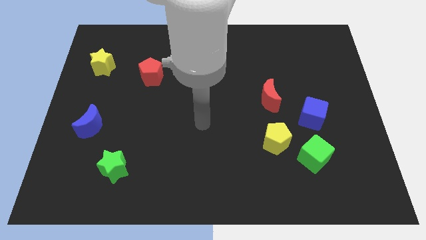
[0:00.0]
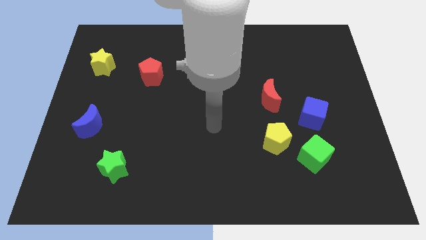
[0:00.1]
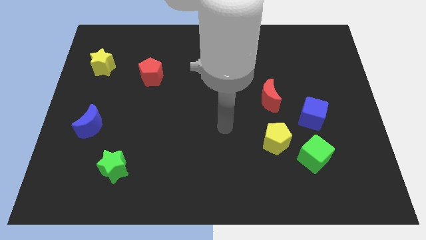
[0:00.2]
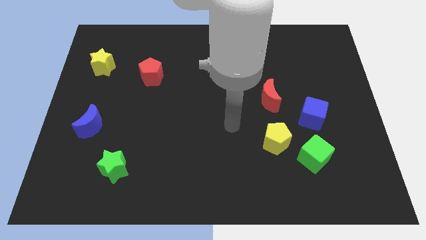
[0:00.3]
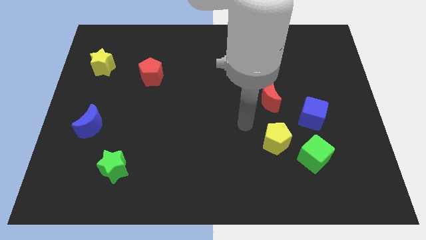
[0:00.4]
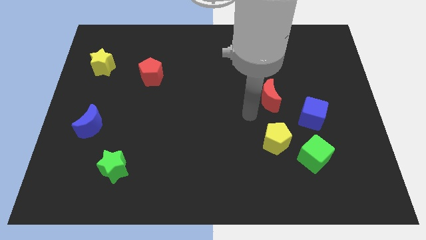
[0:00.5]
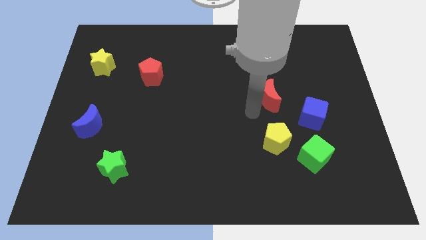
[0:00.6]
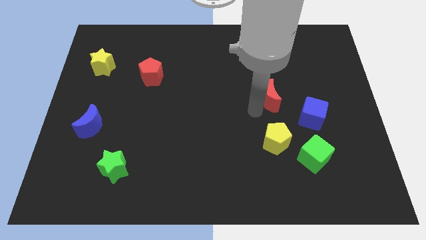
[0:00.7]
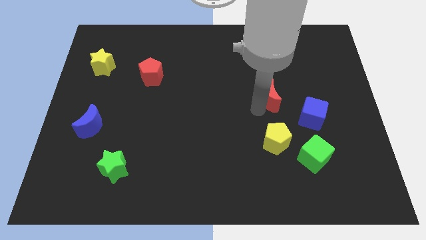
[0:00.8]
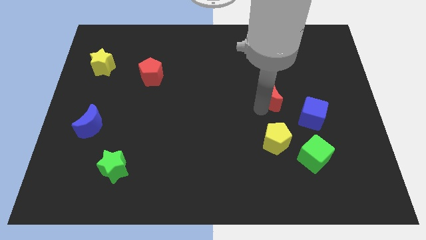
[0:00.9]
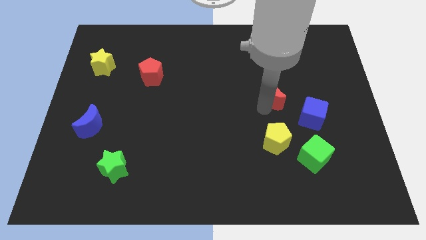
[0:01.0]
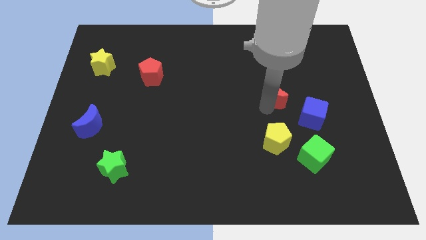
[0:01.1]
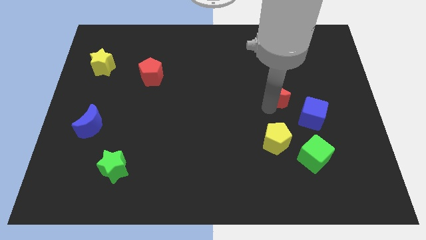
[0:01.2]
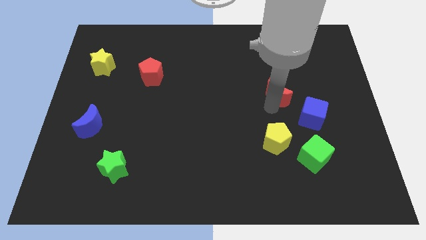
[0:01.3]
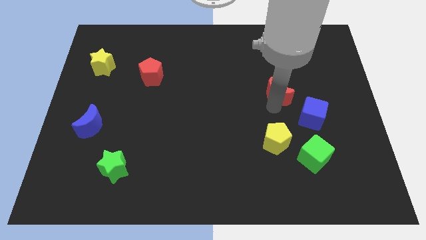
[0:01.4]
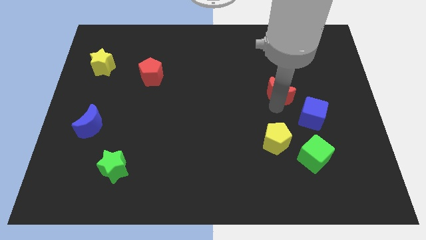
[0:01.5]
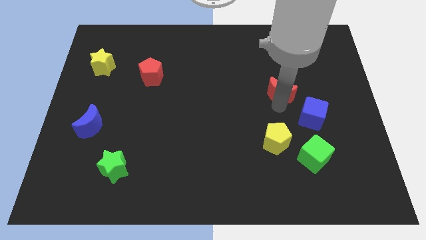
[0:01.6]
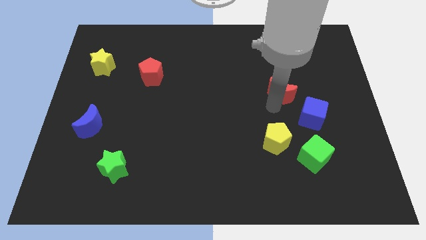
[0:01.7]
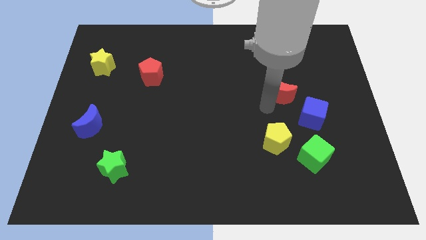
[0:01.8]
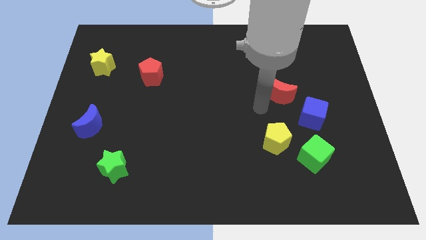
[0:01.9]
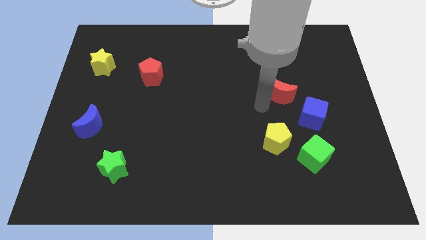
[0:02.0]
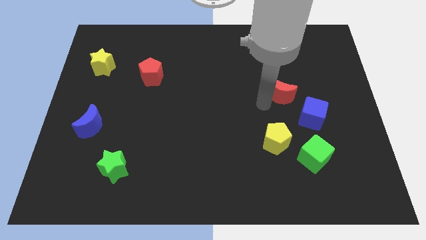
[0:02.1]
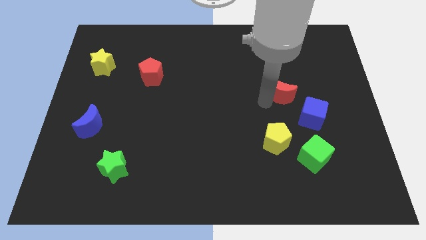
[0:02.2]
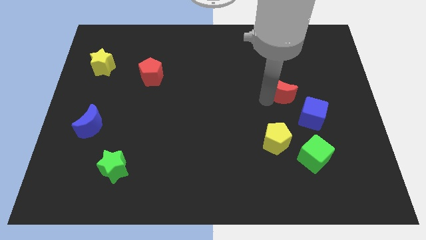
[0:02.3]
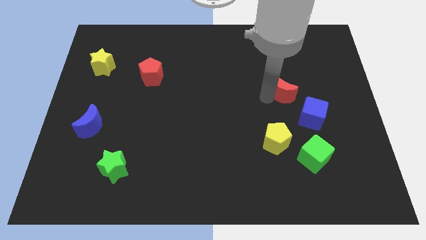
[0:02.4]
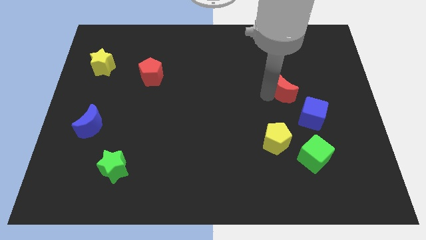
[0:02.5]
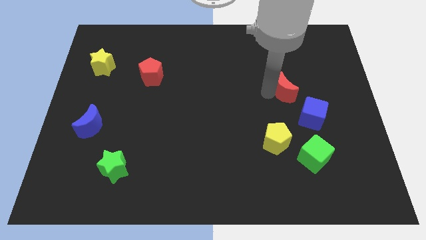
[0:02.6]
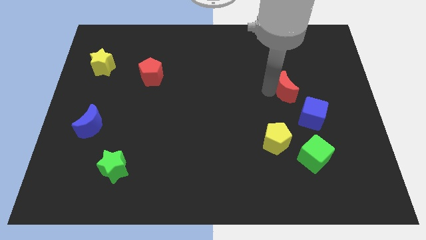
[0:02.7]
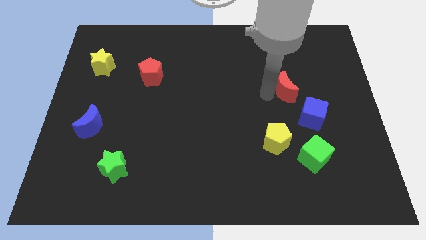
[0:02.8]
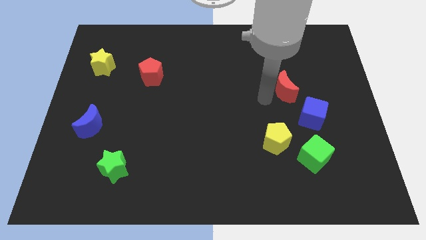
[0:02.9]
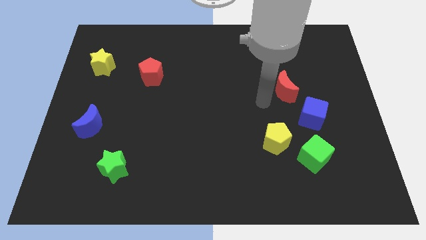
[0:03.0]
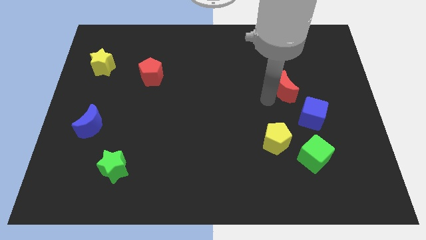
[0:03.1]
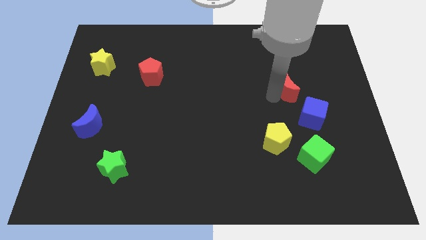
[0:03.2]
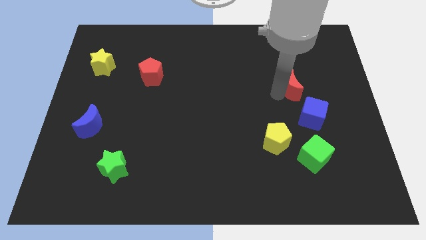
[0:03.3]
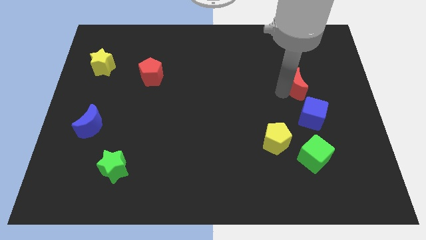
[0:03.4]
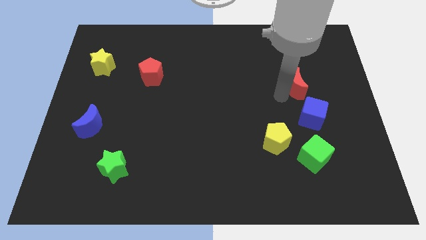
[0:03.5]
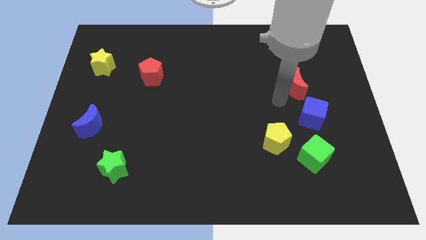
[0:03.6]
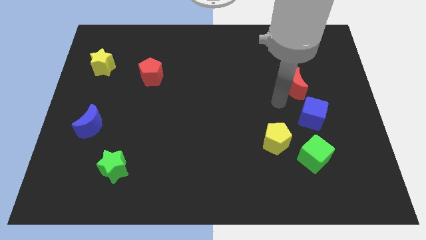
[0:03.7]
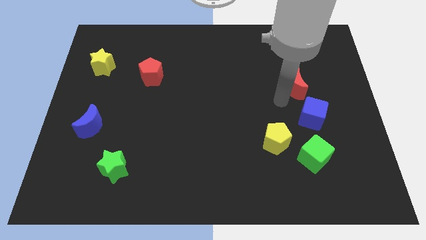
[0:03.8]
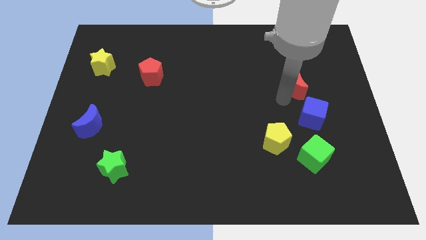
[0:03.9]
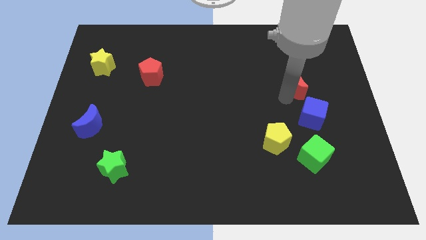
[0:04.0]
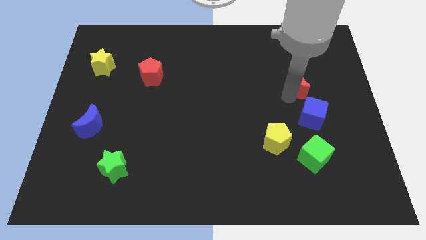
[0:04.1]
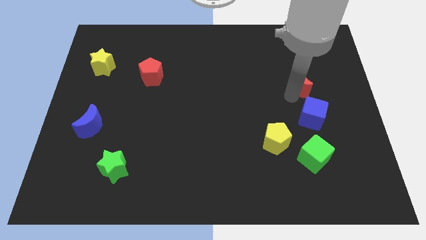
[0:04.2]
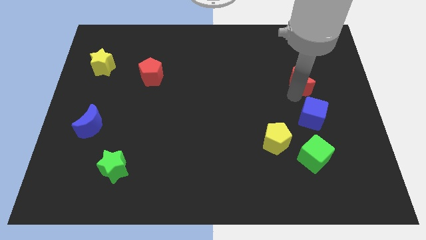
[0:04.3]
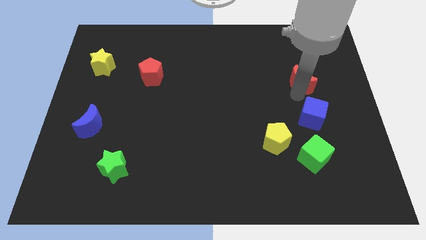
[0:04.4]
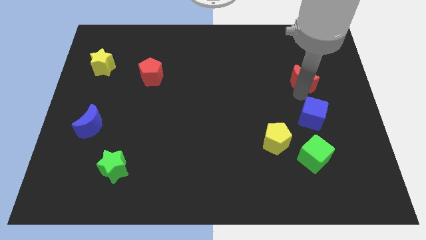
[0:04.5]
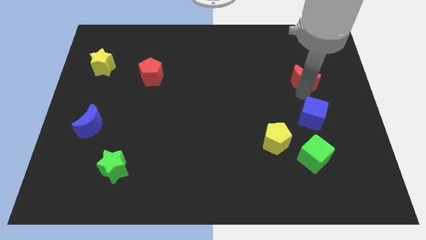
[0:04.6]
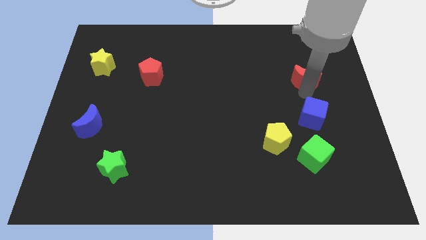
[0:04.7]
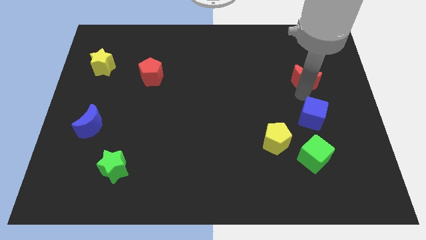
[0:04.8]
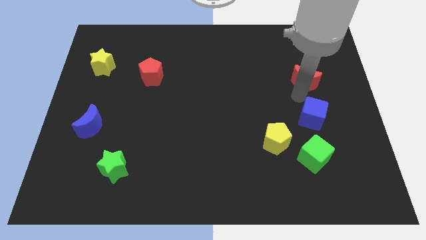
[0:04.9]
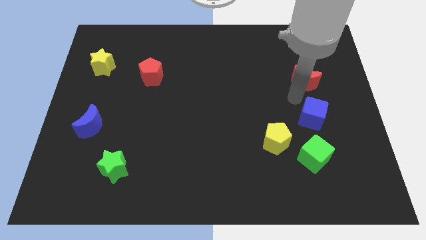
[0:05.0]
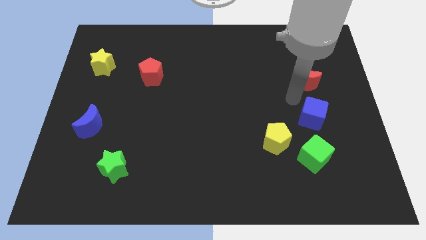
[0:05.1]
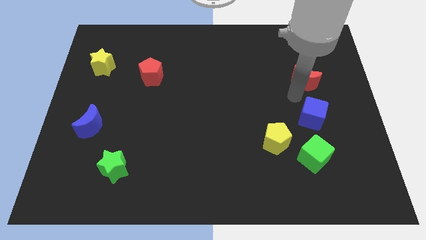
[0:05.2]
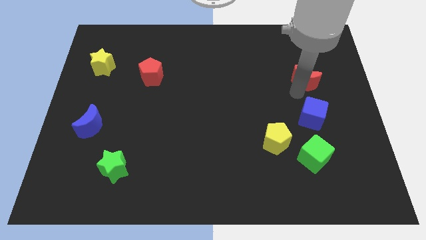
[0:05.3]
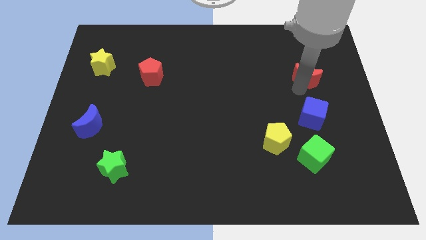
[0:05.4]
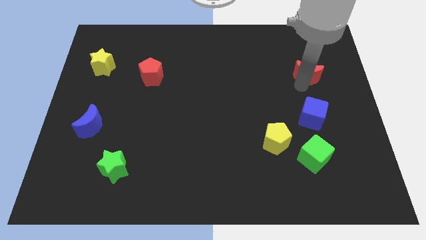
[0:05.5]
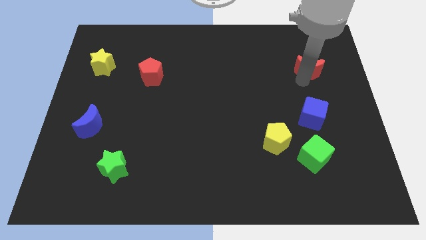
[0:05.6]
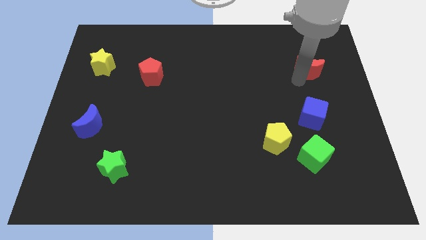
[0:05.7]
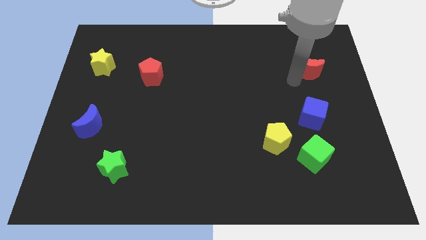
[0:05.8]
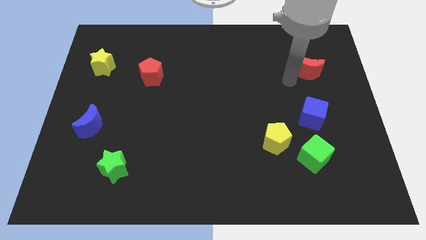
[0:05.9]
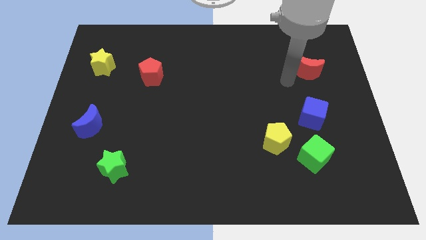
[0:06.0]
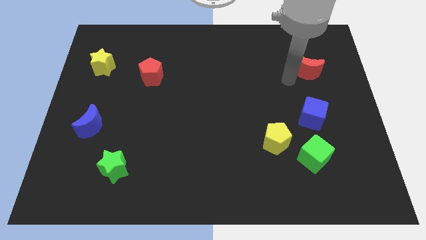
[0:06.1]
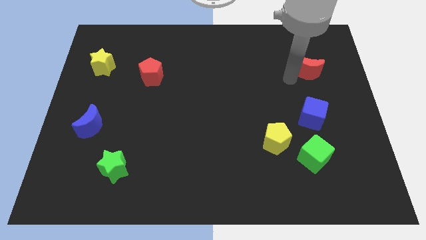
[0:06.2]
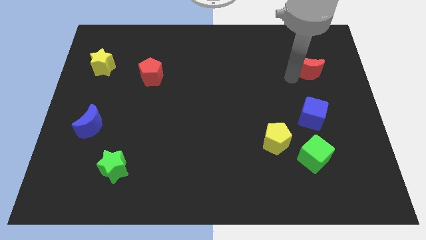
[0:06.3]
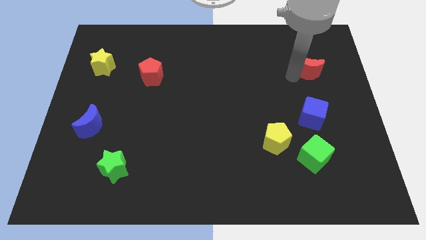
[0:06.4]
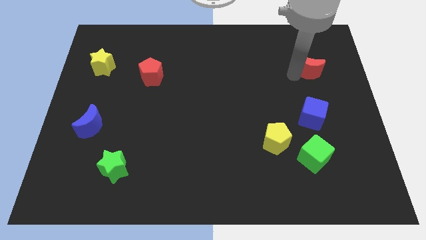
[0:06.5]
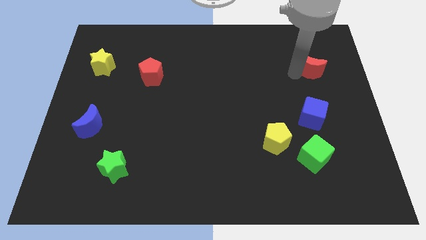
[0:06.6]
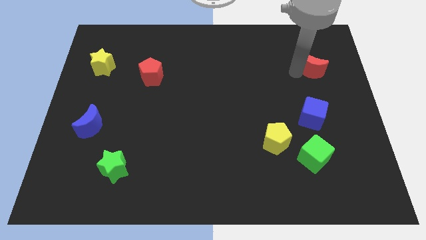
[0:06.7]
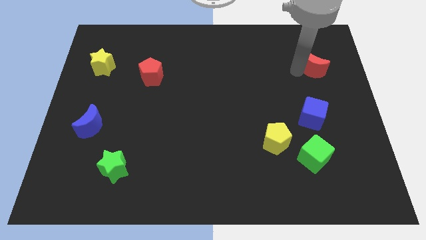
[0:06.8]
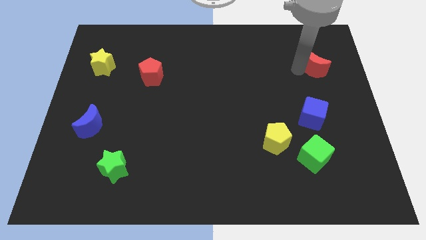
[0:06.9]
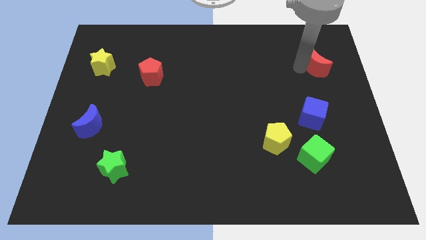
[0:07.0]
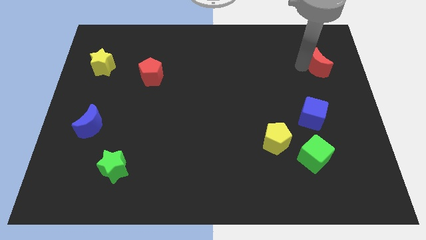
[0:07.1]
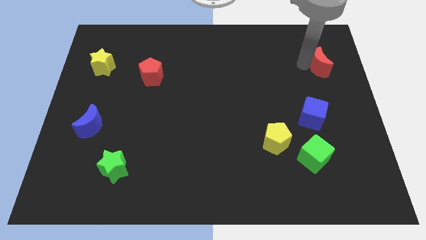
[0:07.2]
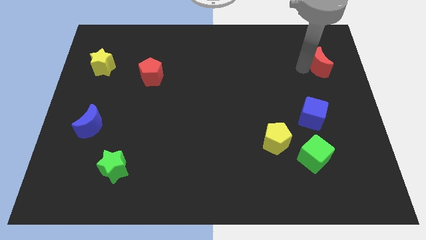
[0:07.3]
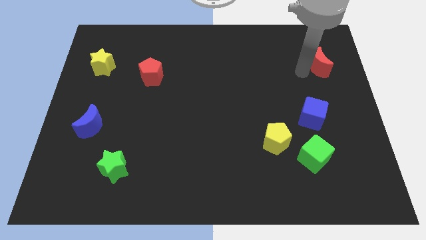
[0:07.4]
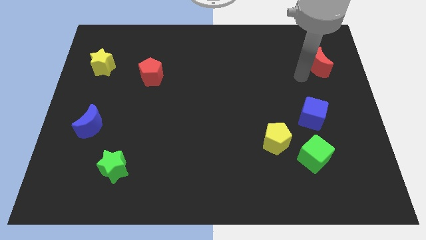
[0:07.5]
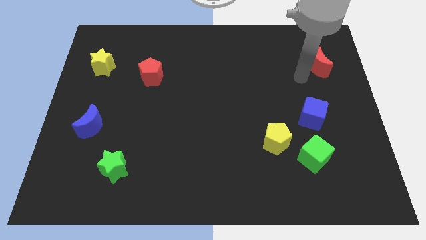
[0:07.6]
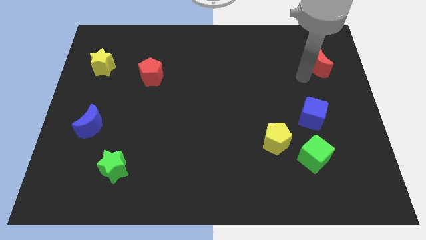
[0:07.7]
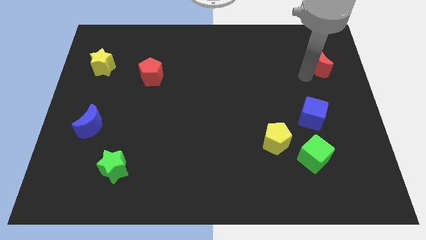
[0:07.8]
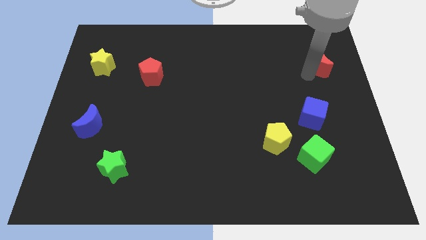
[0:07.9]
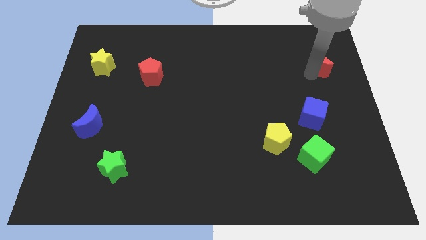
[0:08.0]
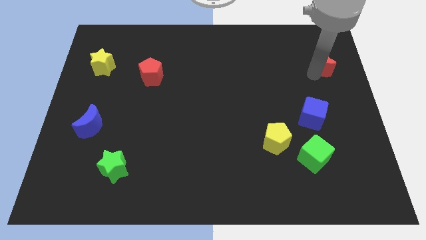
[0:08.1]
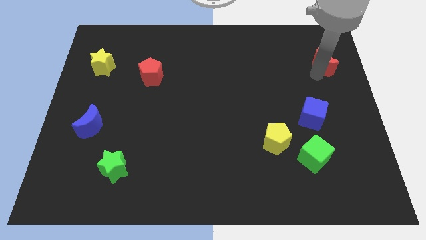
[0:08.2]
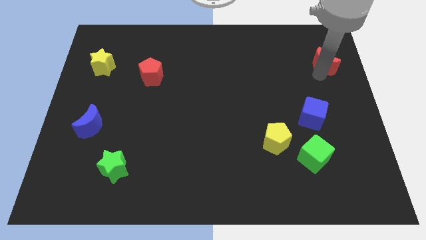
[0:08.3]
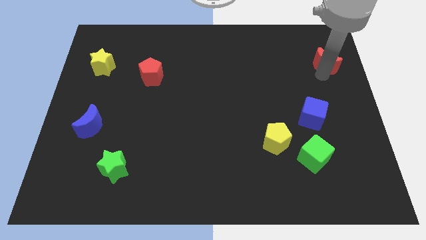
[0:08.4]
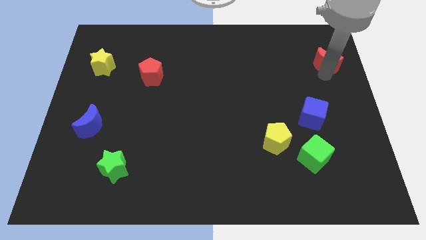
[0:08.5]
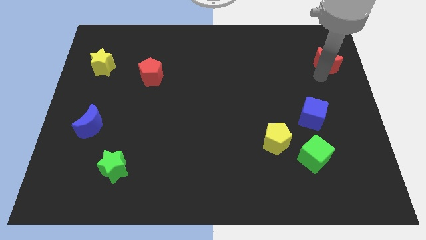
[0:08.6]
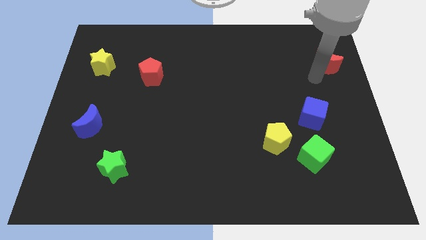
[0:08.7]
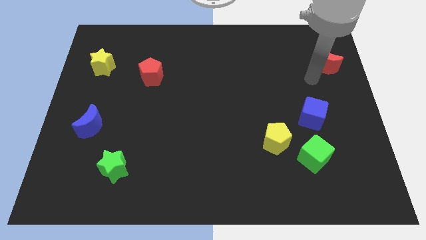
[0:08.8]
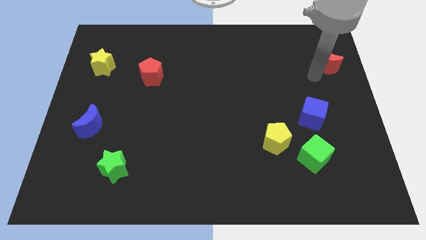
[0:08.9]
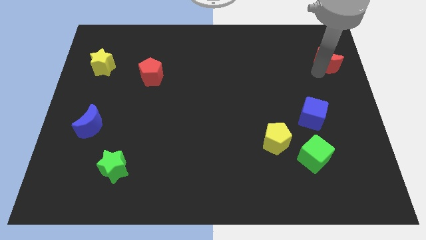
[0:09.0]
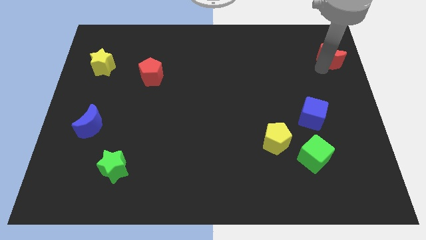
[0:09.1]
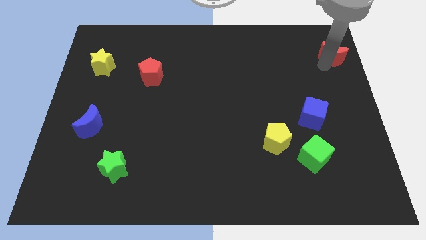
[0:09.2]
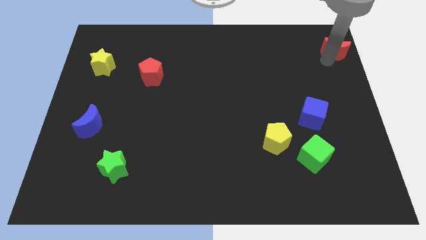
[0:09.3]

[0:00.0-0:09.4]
slide the red moon to the top right of the board
